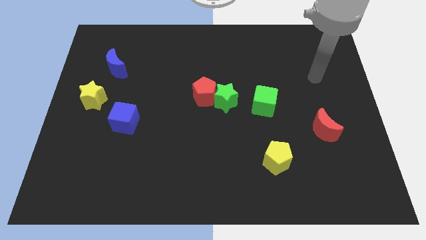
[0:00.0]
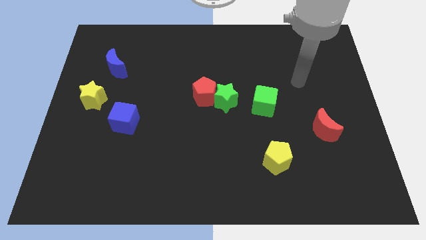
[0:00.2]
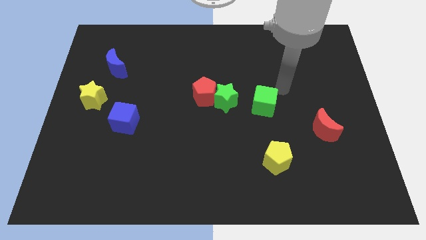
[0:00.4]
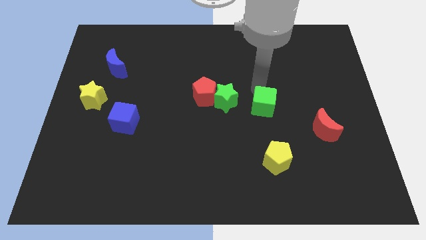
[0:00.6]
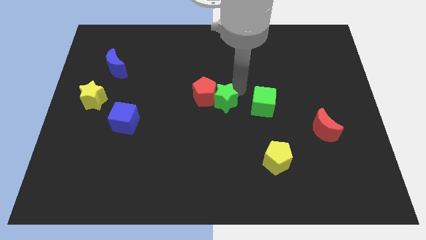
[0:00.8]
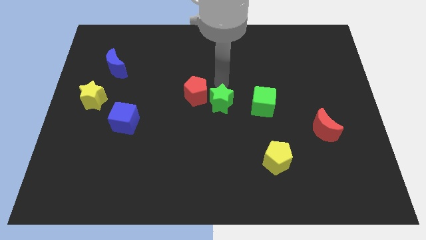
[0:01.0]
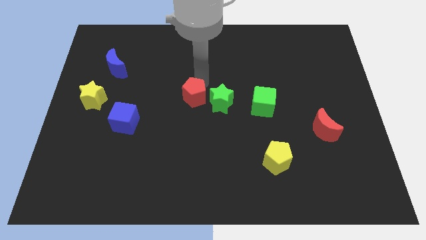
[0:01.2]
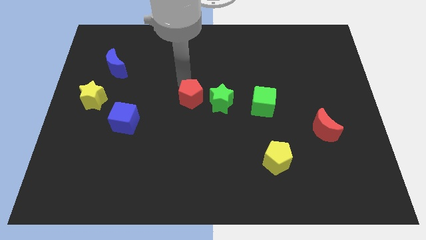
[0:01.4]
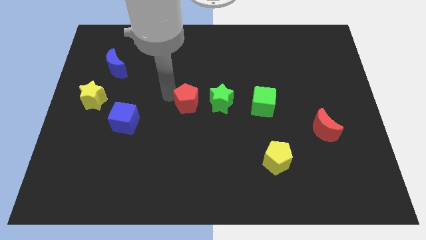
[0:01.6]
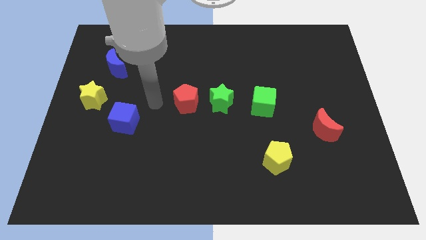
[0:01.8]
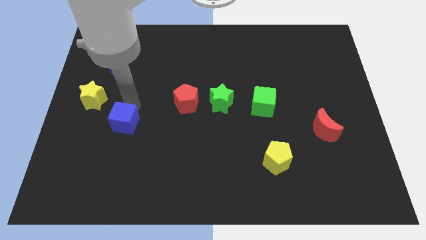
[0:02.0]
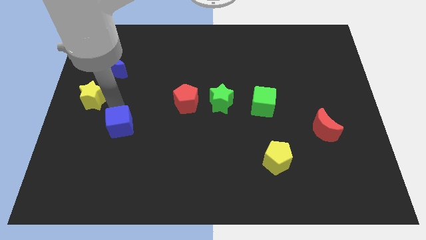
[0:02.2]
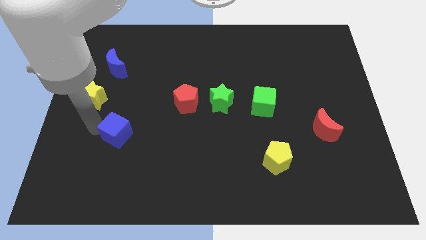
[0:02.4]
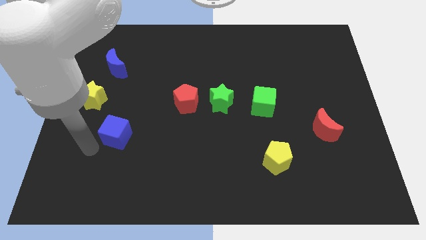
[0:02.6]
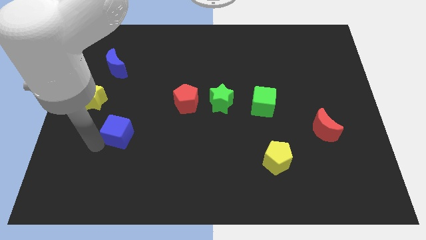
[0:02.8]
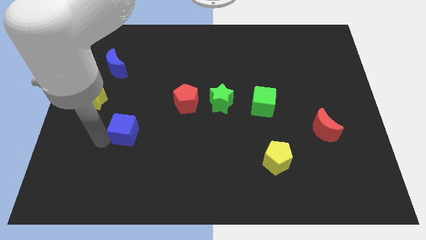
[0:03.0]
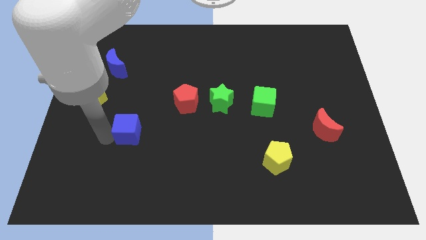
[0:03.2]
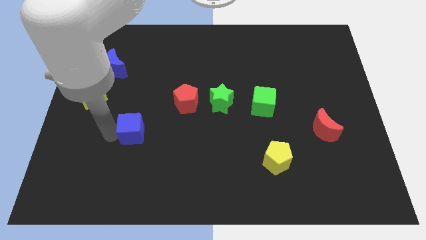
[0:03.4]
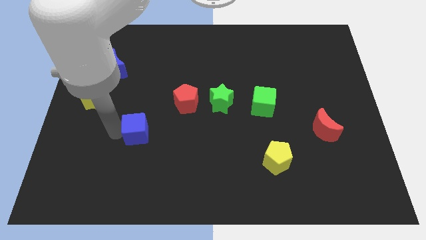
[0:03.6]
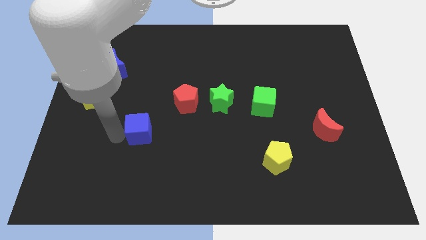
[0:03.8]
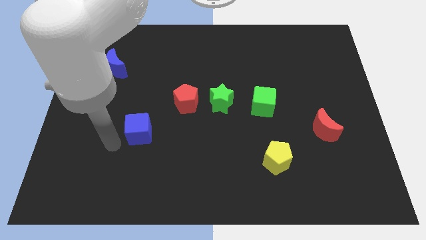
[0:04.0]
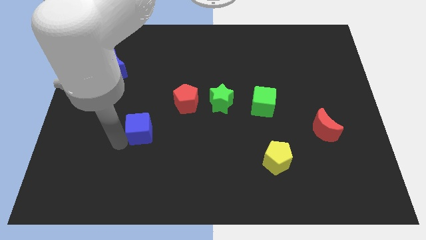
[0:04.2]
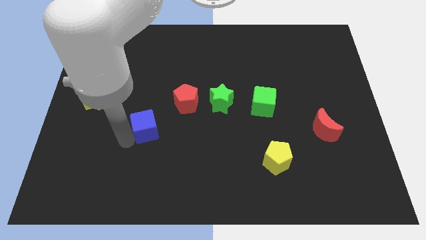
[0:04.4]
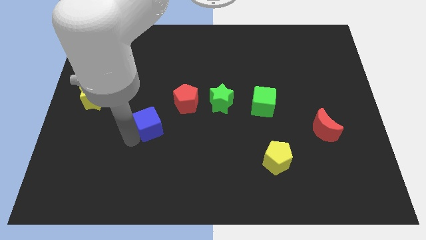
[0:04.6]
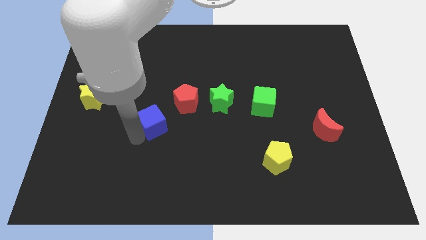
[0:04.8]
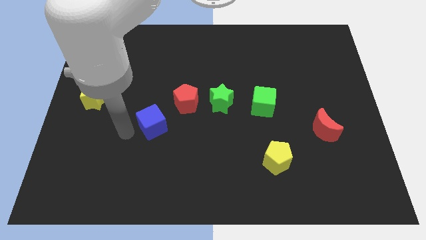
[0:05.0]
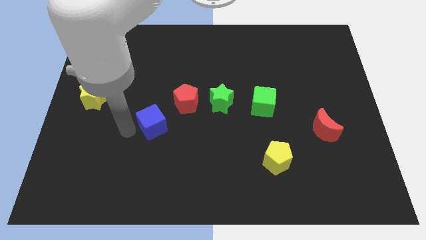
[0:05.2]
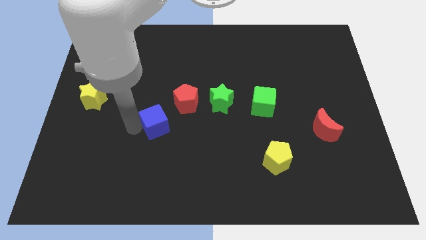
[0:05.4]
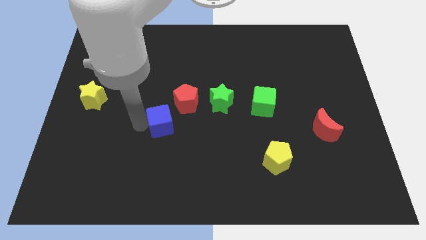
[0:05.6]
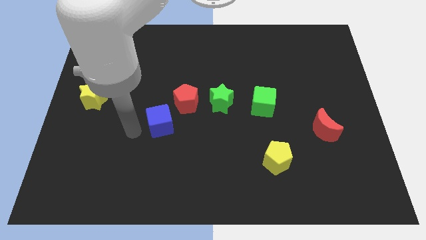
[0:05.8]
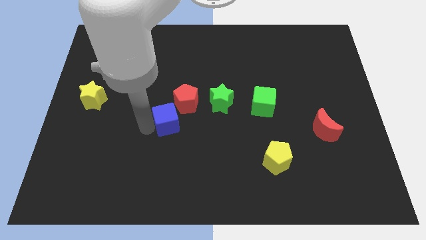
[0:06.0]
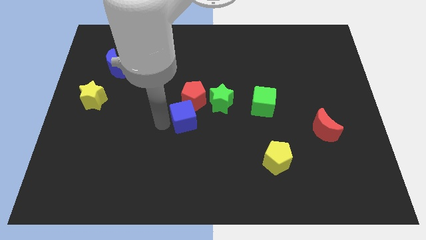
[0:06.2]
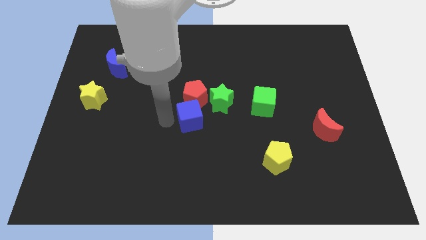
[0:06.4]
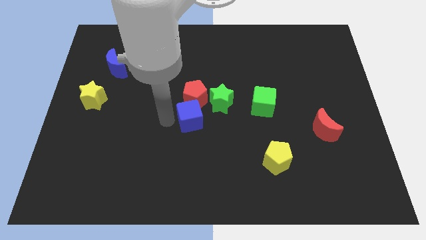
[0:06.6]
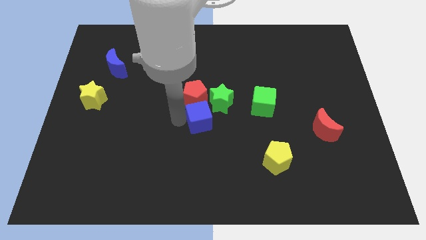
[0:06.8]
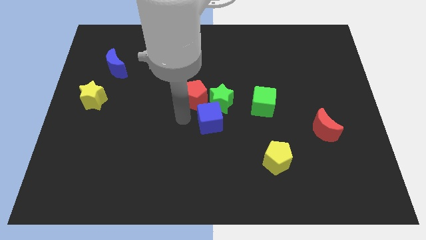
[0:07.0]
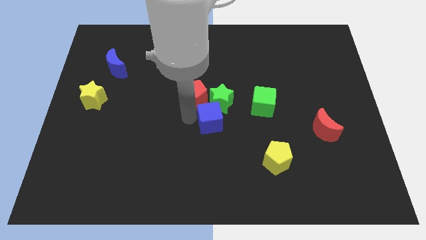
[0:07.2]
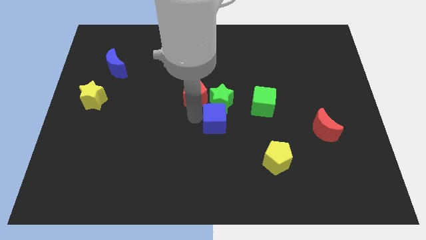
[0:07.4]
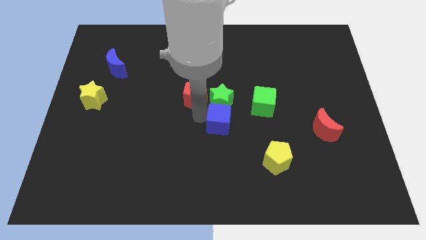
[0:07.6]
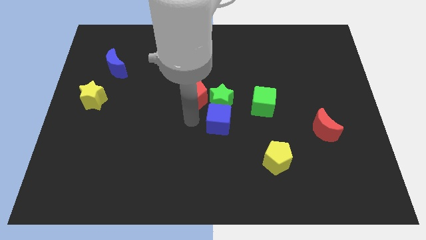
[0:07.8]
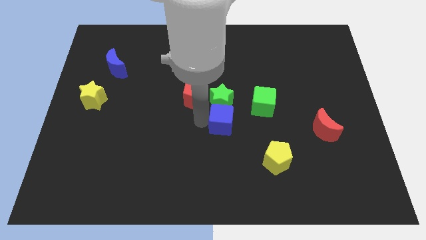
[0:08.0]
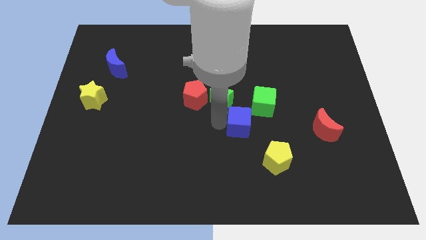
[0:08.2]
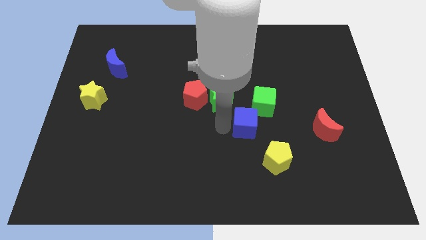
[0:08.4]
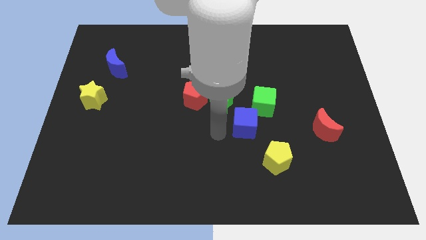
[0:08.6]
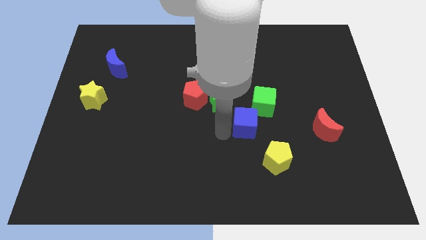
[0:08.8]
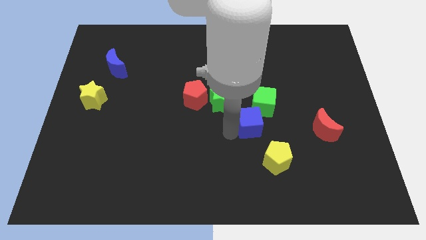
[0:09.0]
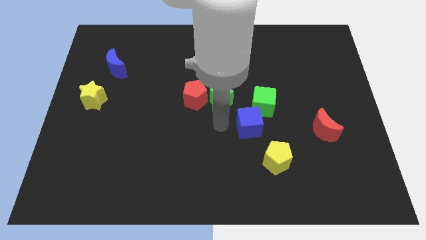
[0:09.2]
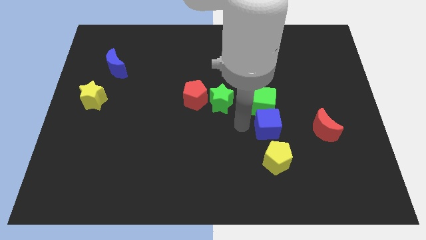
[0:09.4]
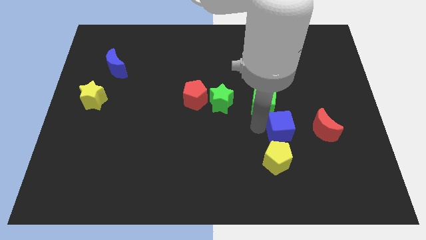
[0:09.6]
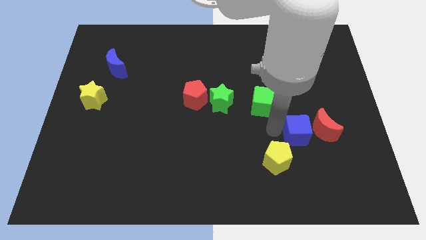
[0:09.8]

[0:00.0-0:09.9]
push the blue cube close to the red moon

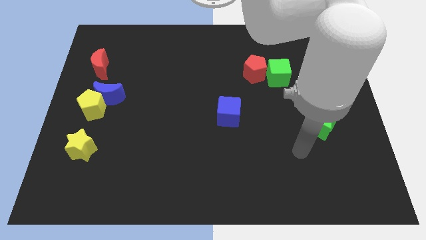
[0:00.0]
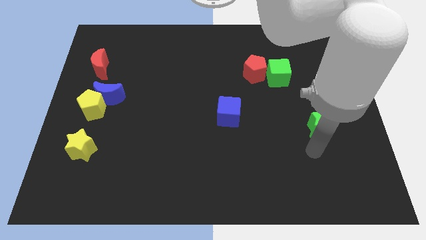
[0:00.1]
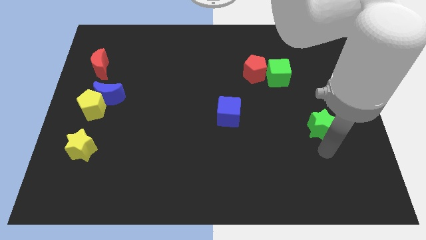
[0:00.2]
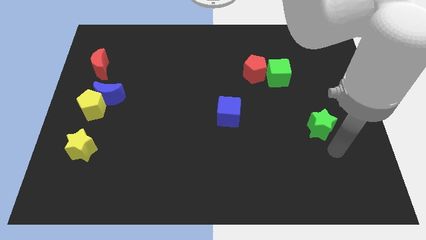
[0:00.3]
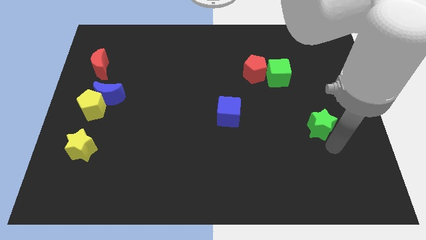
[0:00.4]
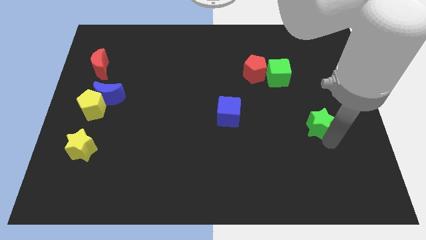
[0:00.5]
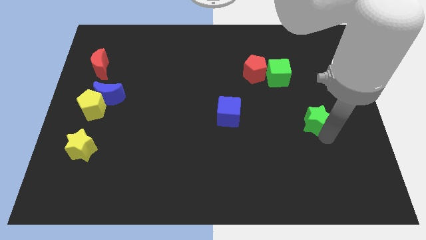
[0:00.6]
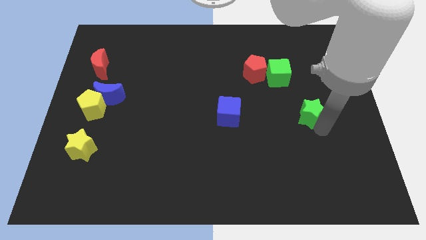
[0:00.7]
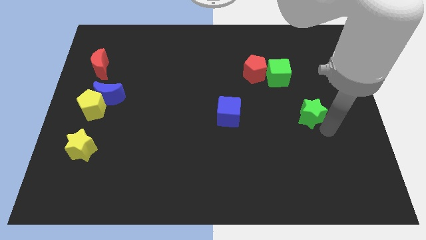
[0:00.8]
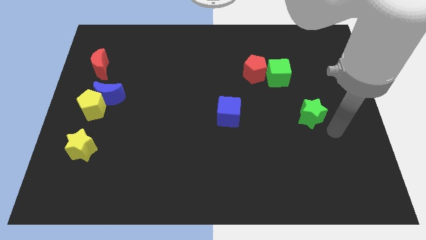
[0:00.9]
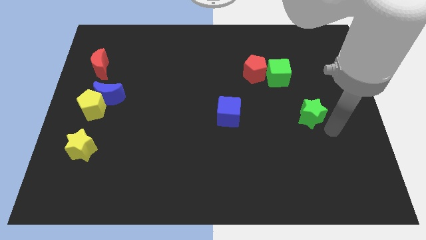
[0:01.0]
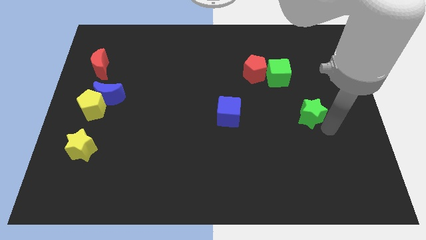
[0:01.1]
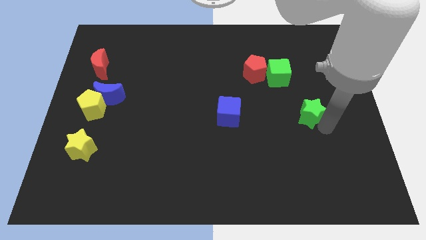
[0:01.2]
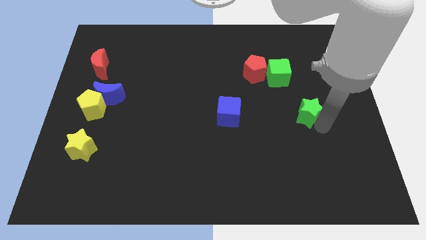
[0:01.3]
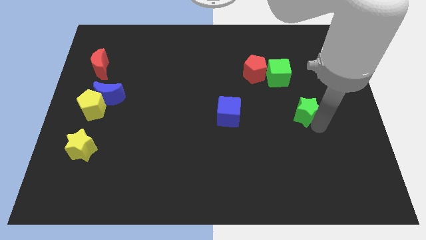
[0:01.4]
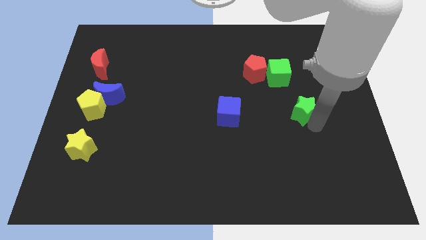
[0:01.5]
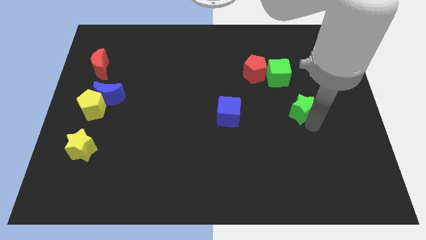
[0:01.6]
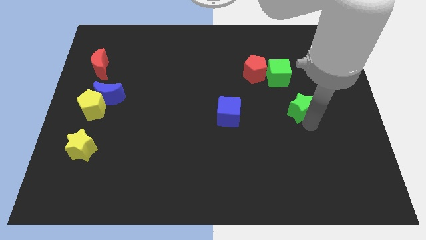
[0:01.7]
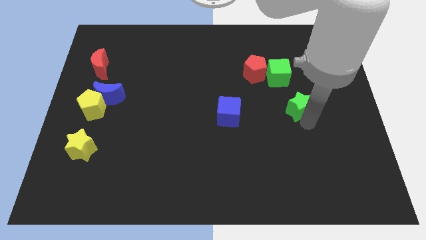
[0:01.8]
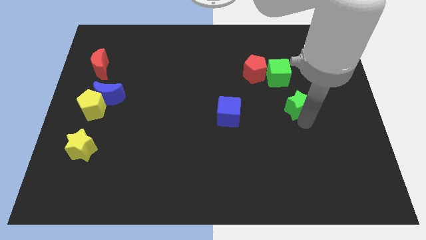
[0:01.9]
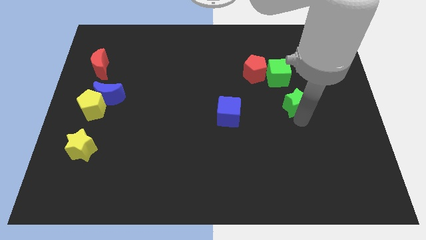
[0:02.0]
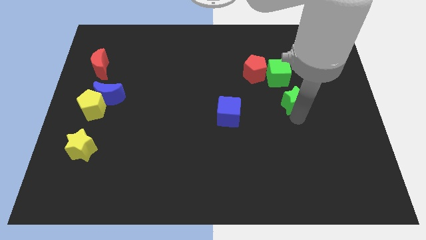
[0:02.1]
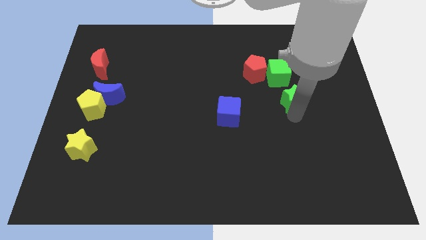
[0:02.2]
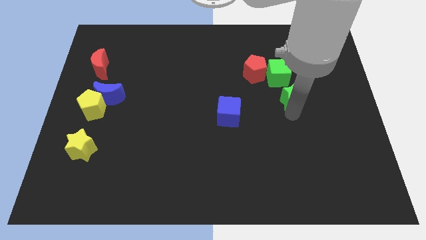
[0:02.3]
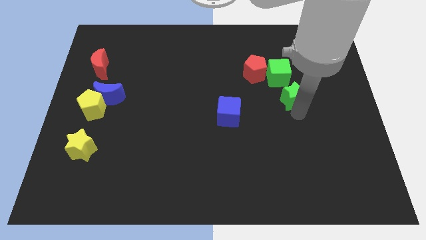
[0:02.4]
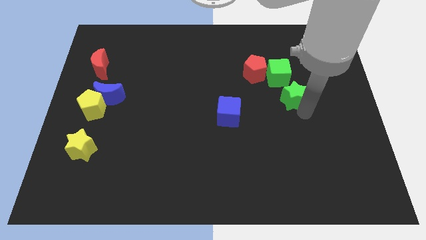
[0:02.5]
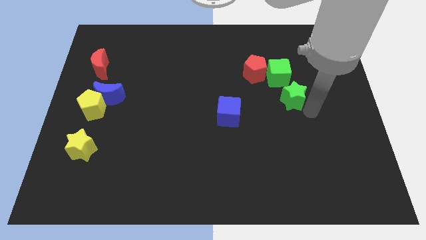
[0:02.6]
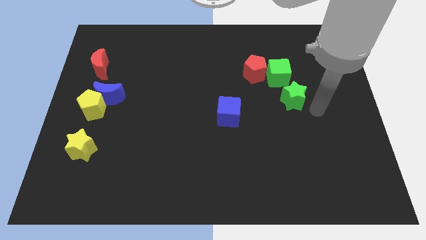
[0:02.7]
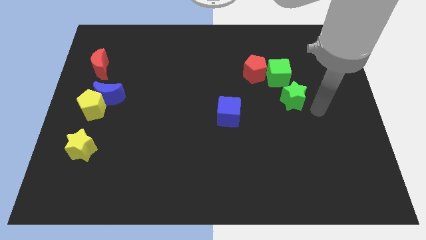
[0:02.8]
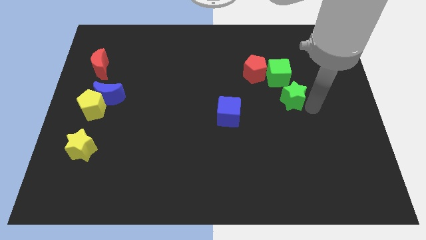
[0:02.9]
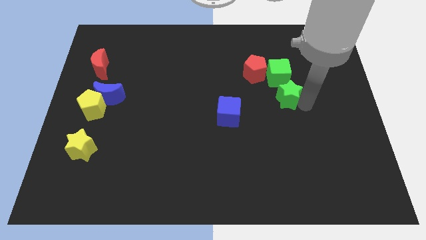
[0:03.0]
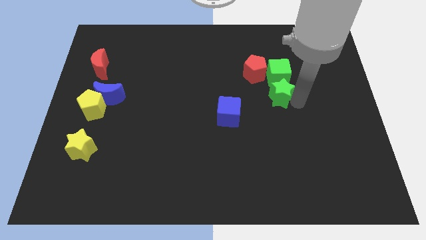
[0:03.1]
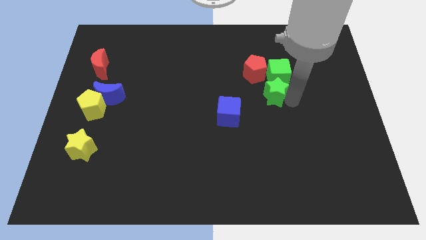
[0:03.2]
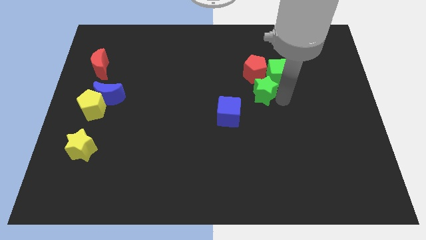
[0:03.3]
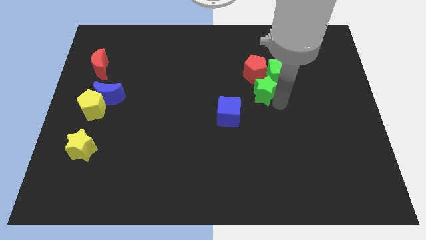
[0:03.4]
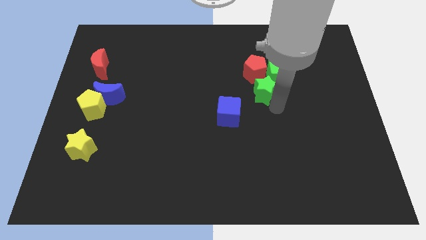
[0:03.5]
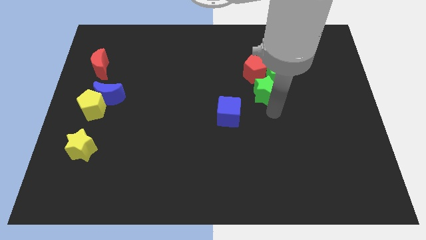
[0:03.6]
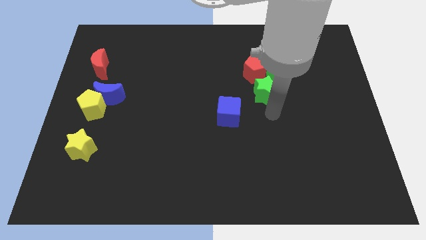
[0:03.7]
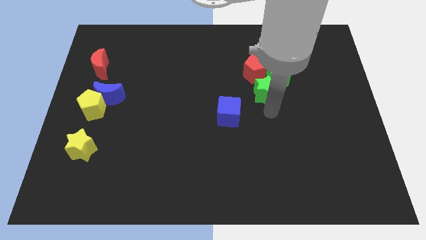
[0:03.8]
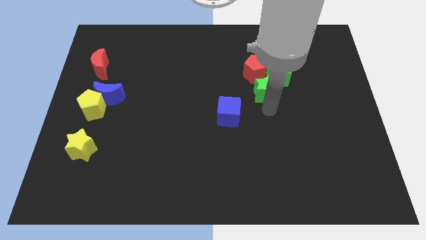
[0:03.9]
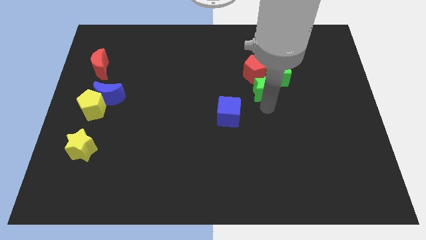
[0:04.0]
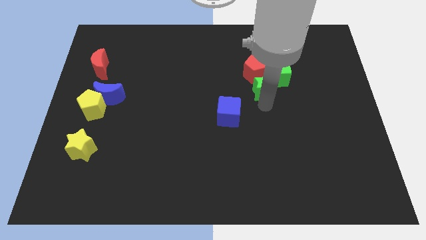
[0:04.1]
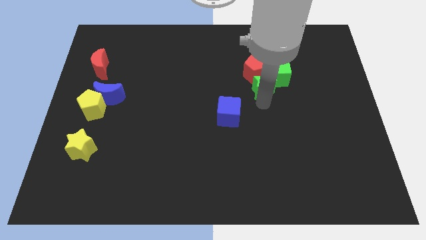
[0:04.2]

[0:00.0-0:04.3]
put the green star next to the red pentagon
